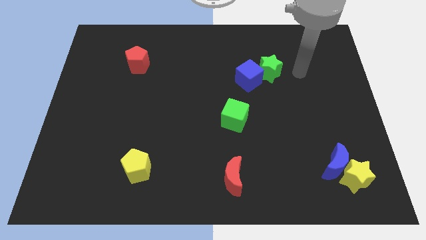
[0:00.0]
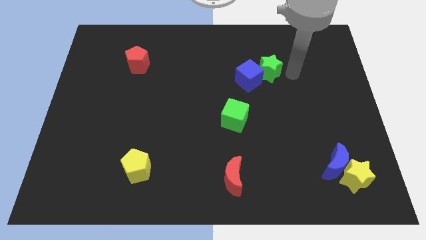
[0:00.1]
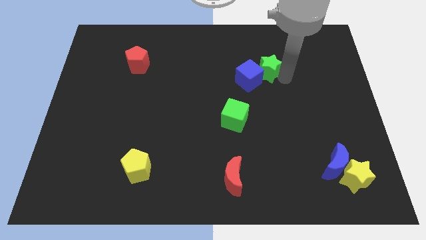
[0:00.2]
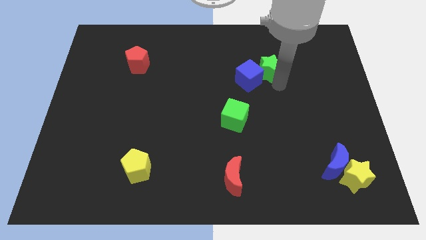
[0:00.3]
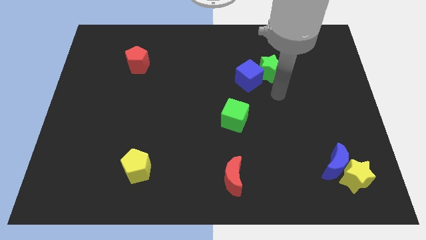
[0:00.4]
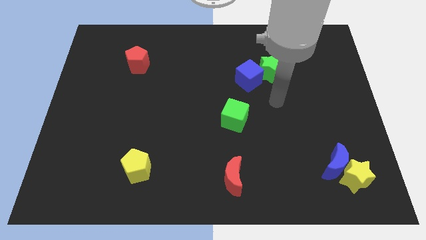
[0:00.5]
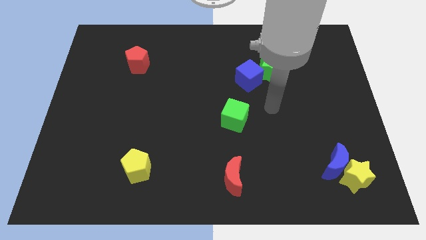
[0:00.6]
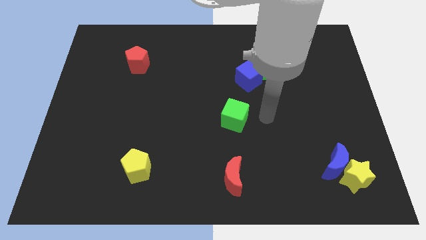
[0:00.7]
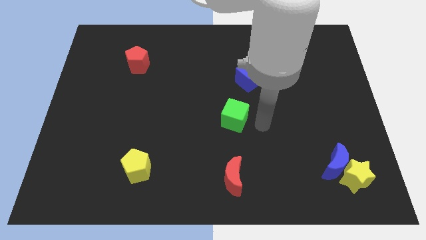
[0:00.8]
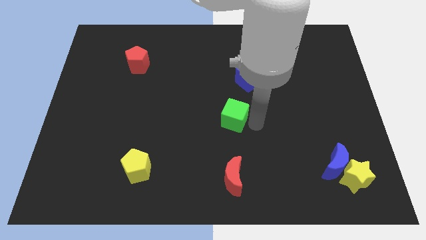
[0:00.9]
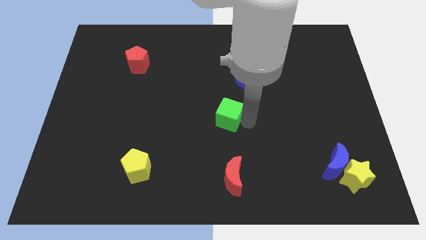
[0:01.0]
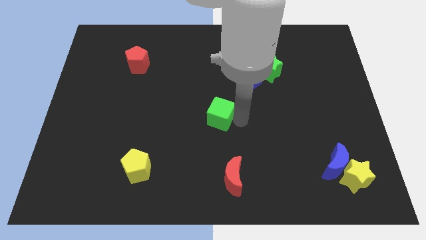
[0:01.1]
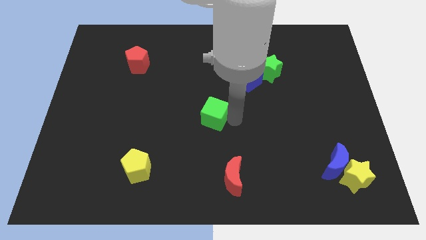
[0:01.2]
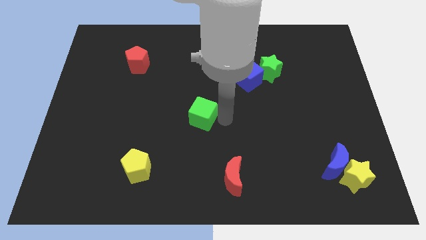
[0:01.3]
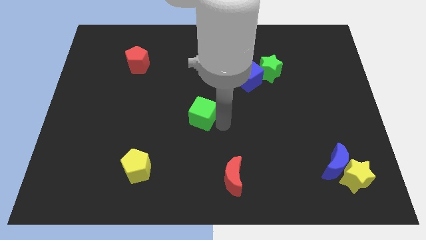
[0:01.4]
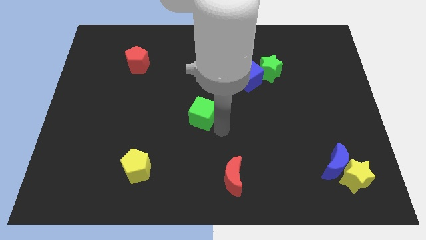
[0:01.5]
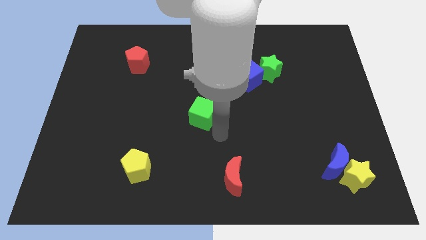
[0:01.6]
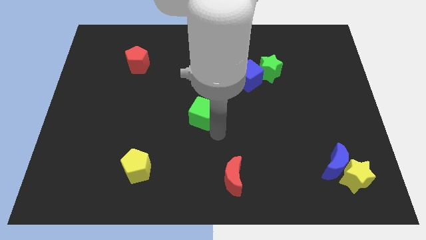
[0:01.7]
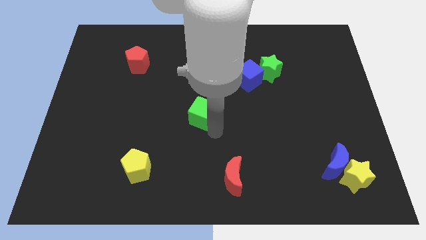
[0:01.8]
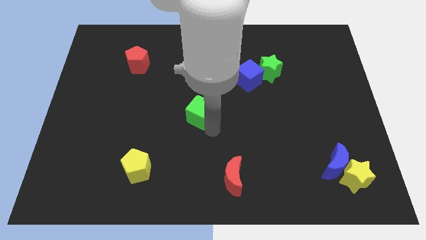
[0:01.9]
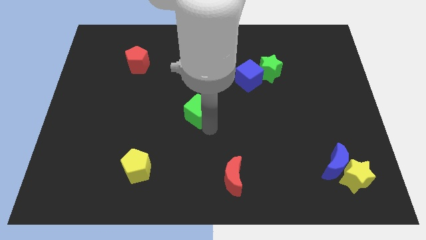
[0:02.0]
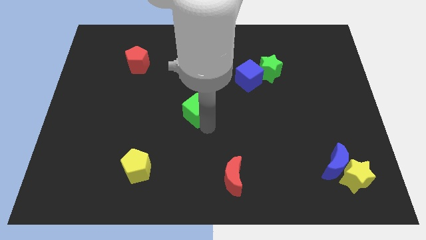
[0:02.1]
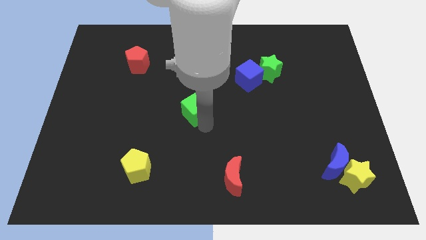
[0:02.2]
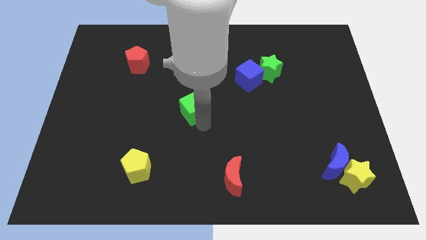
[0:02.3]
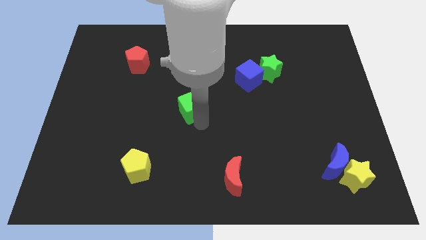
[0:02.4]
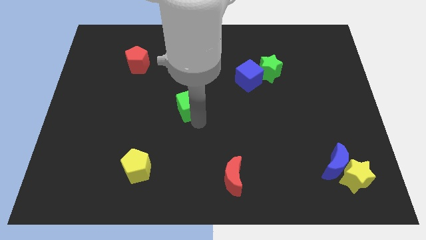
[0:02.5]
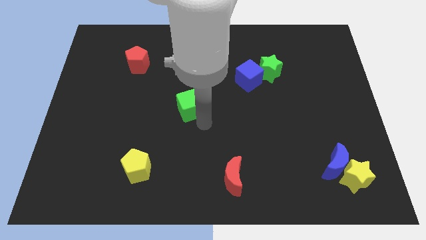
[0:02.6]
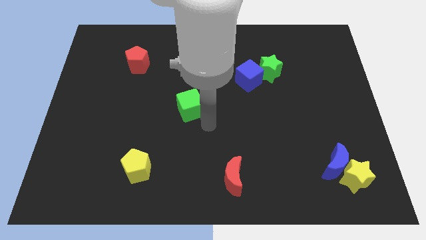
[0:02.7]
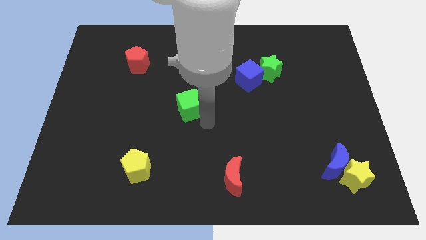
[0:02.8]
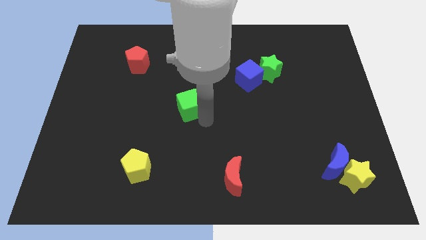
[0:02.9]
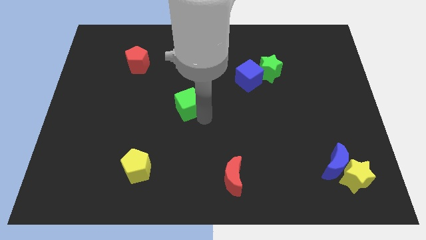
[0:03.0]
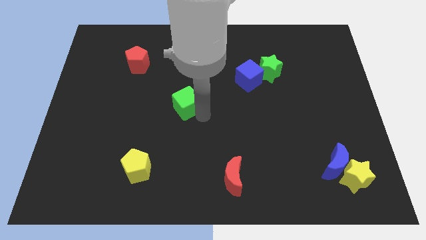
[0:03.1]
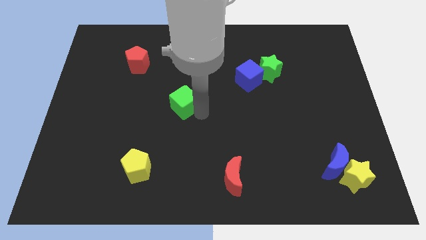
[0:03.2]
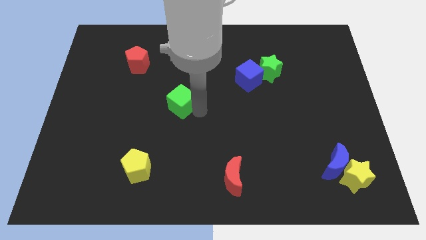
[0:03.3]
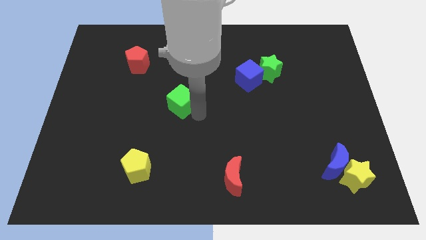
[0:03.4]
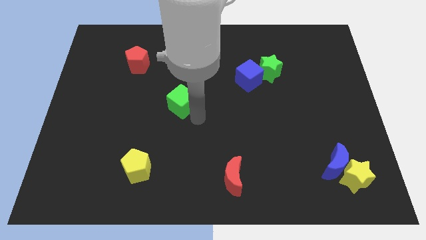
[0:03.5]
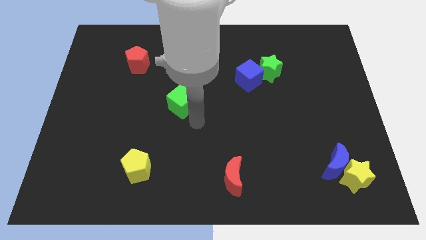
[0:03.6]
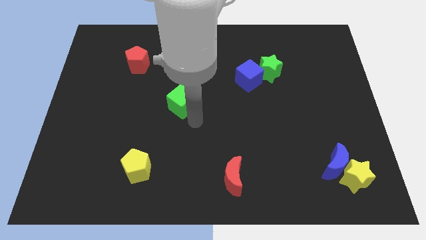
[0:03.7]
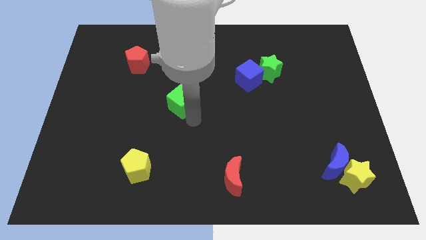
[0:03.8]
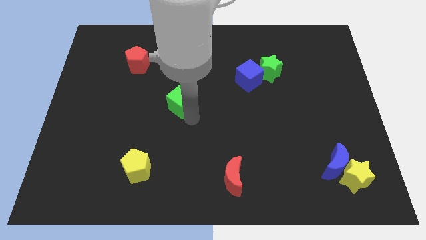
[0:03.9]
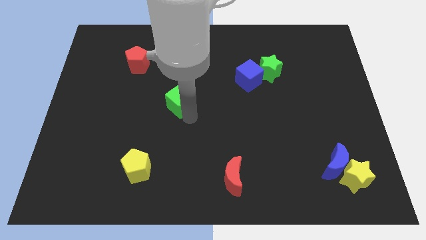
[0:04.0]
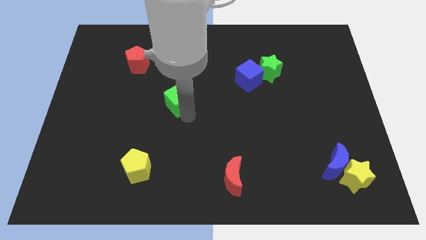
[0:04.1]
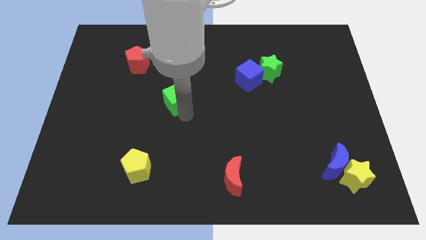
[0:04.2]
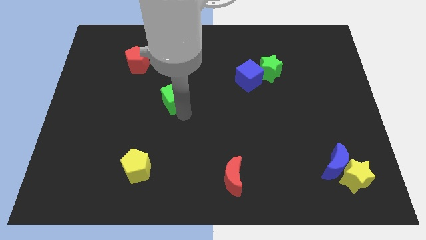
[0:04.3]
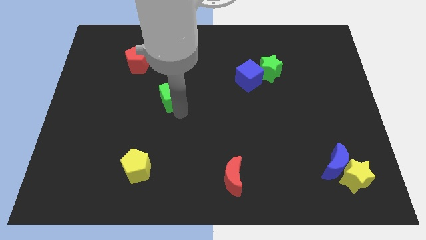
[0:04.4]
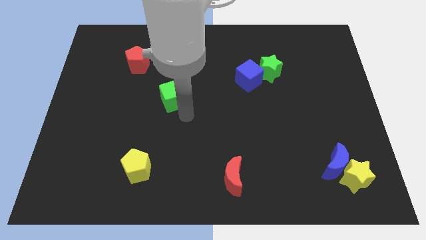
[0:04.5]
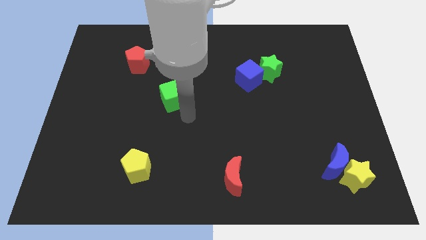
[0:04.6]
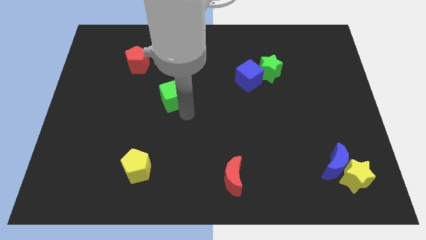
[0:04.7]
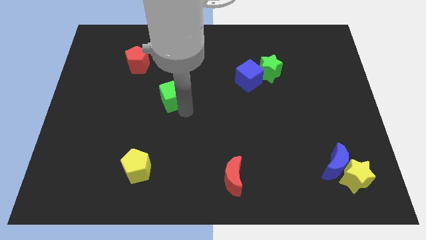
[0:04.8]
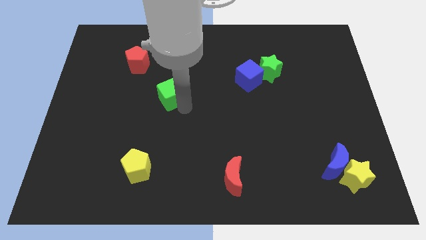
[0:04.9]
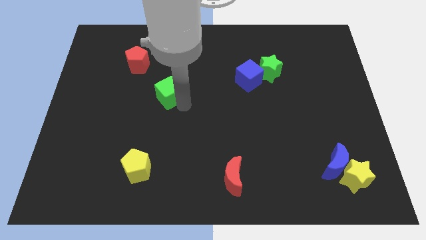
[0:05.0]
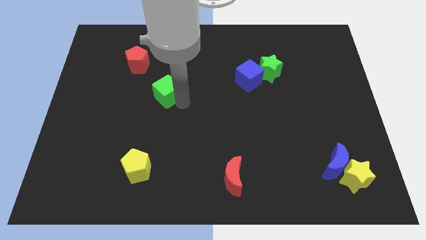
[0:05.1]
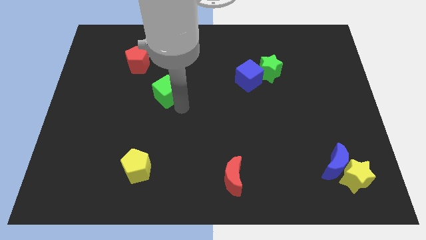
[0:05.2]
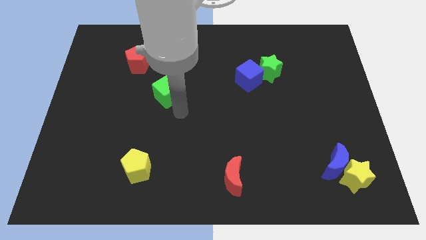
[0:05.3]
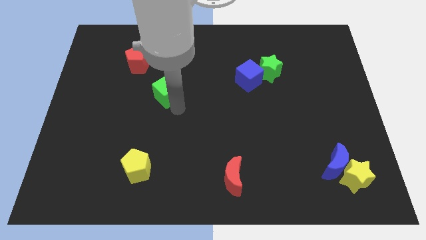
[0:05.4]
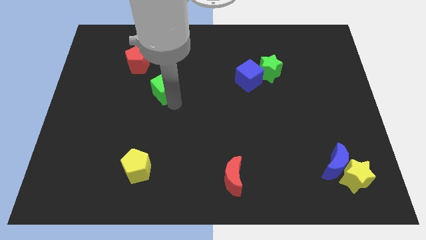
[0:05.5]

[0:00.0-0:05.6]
put the green cube diagonally down and to the right of the red pentagon

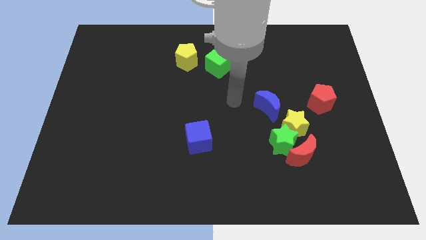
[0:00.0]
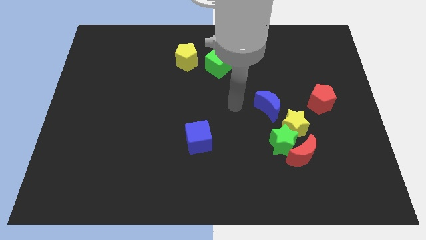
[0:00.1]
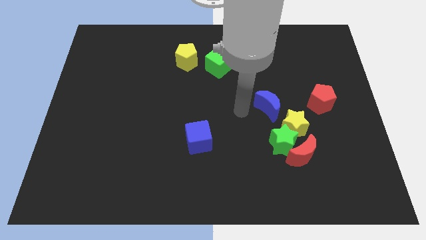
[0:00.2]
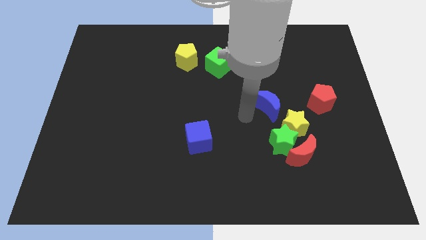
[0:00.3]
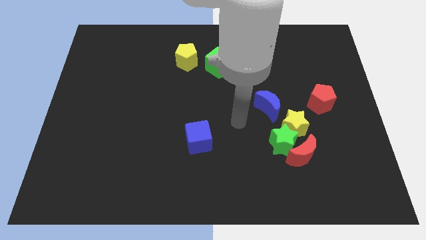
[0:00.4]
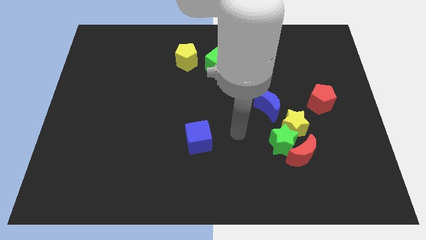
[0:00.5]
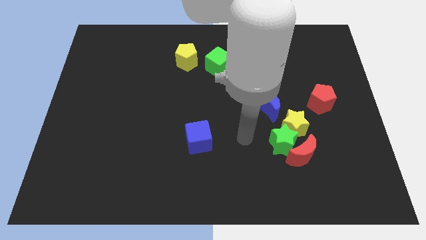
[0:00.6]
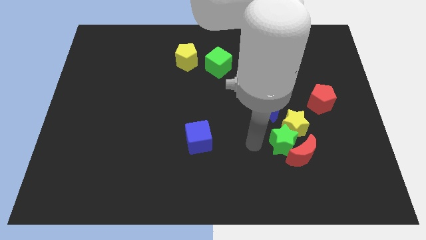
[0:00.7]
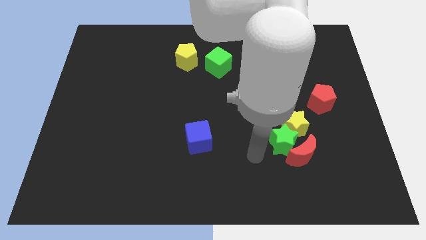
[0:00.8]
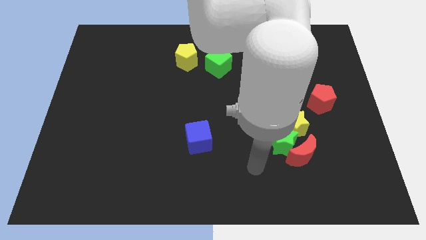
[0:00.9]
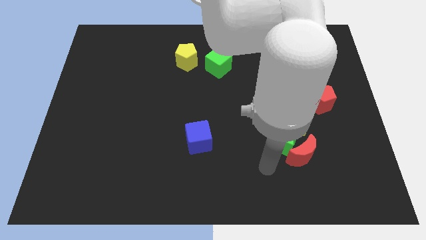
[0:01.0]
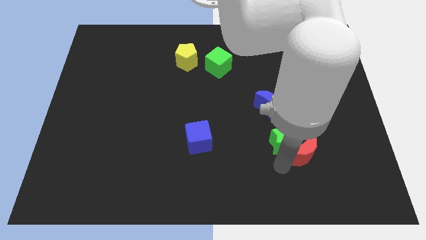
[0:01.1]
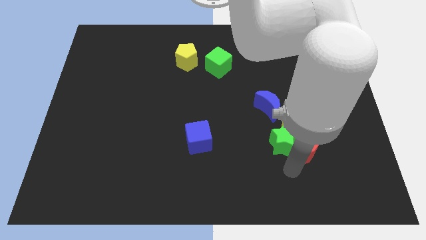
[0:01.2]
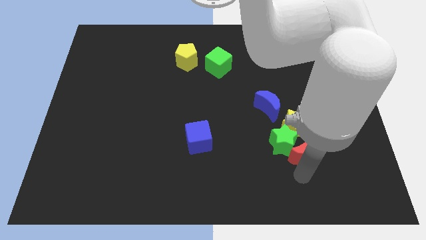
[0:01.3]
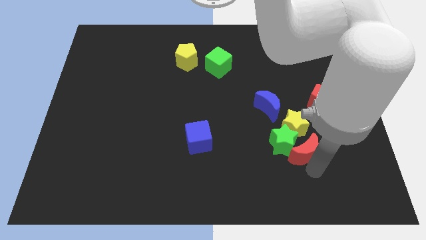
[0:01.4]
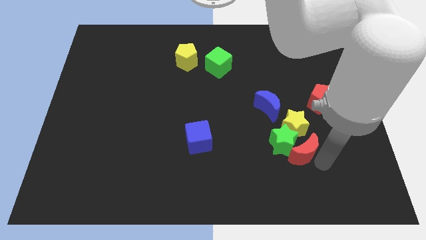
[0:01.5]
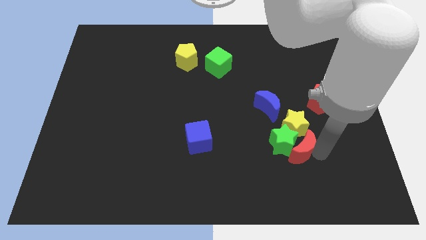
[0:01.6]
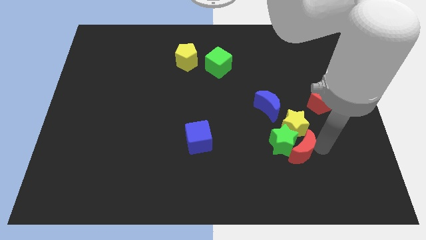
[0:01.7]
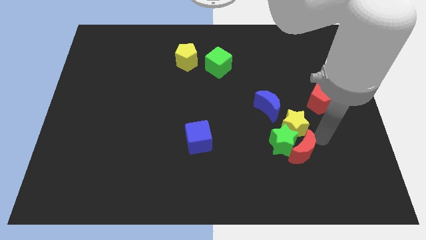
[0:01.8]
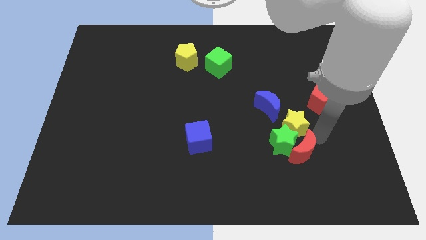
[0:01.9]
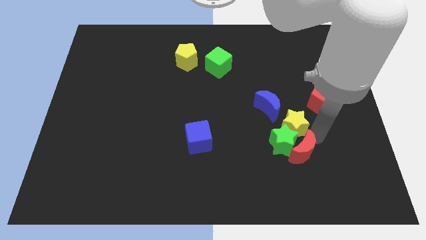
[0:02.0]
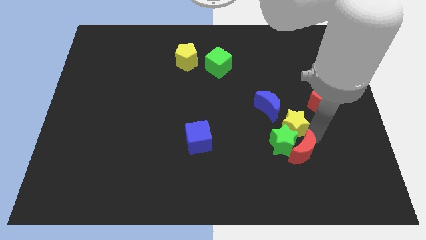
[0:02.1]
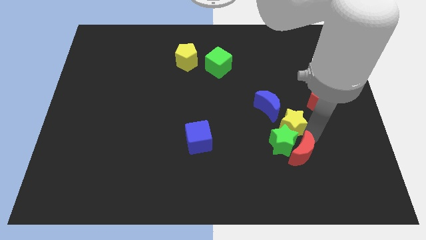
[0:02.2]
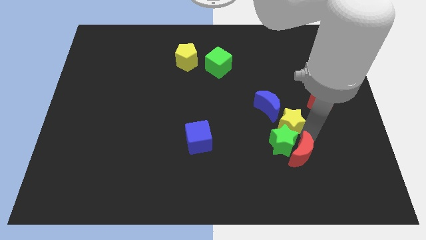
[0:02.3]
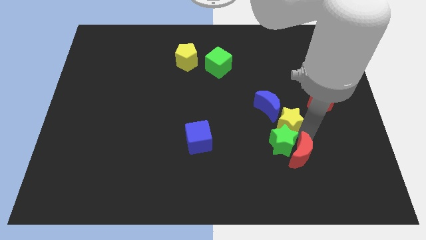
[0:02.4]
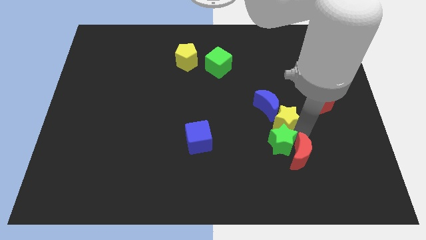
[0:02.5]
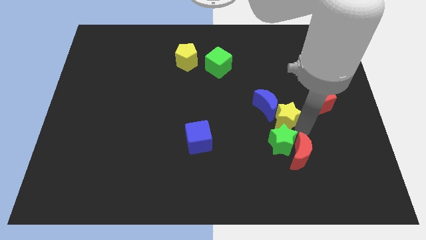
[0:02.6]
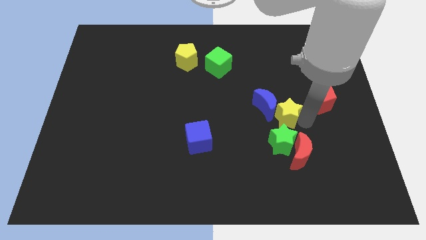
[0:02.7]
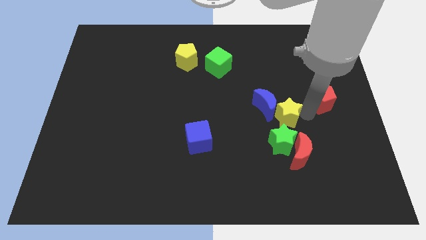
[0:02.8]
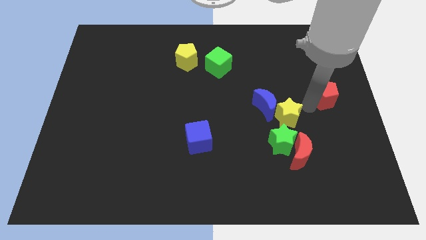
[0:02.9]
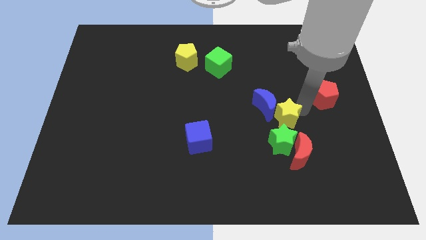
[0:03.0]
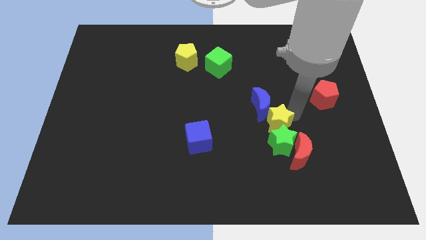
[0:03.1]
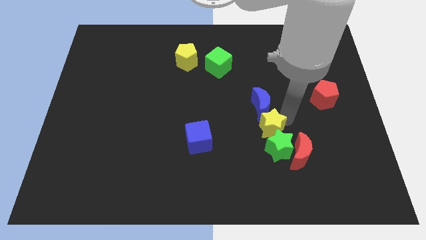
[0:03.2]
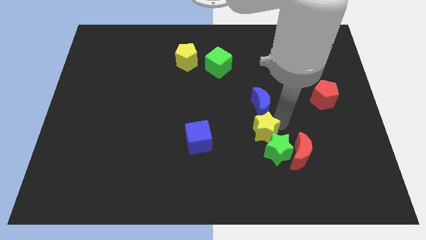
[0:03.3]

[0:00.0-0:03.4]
slide the yellow star to the right side of the blue cube
